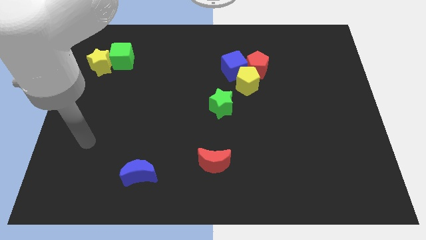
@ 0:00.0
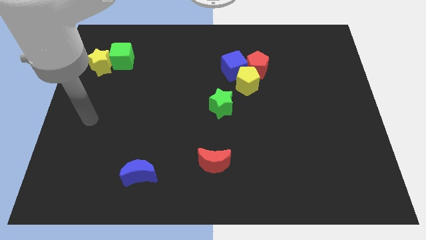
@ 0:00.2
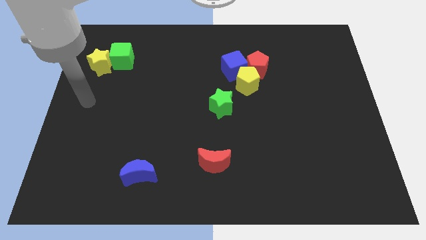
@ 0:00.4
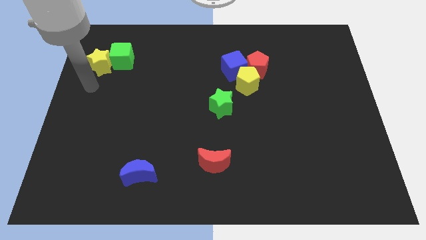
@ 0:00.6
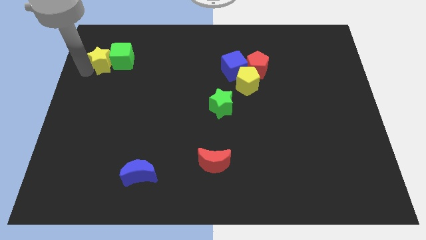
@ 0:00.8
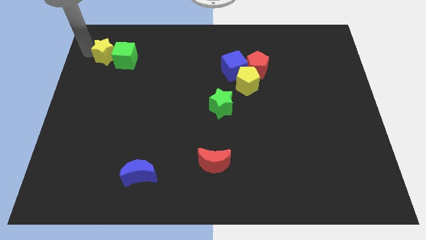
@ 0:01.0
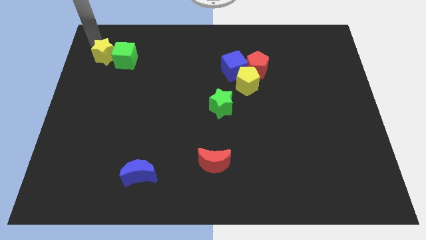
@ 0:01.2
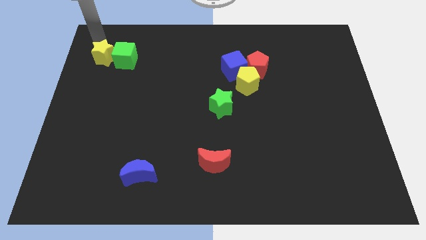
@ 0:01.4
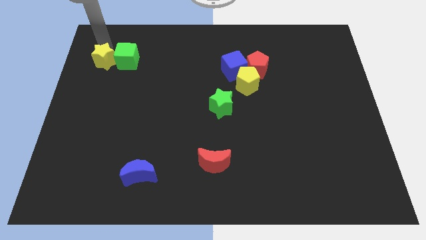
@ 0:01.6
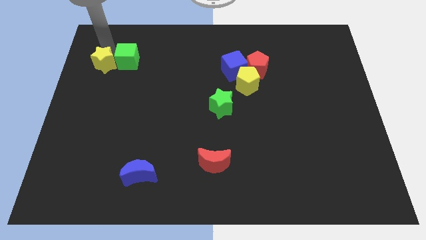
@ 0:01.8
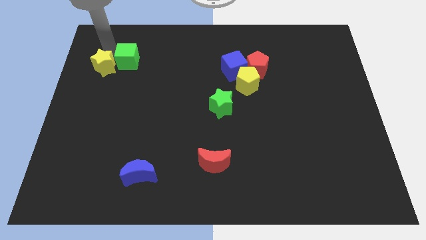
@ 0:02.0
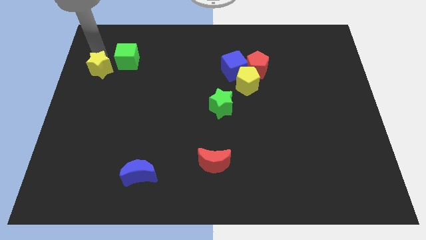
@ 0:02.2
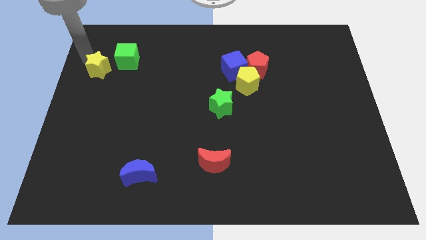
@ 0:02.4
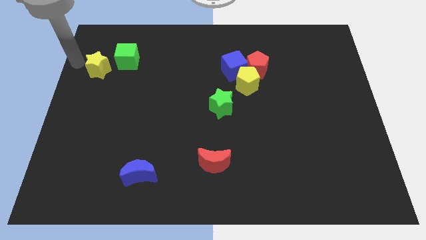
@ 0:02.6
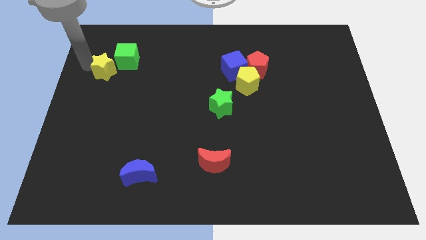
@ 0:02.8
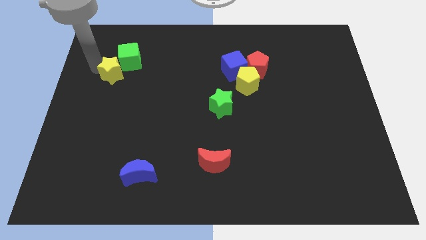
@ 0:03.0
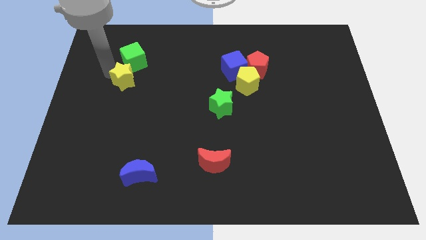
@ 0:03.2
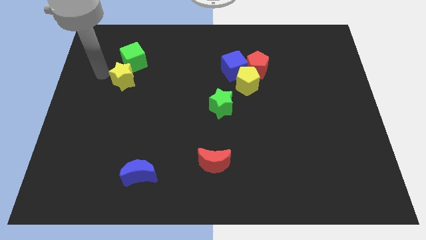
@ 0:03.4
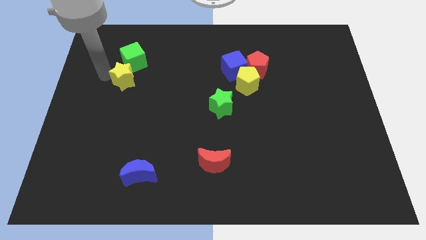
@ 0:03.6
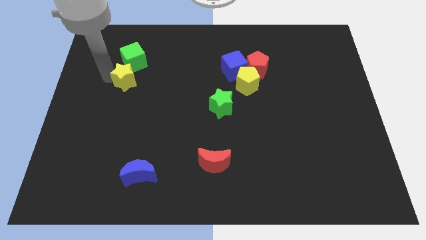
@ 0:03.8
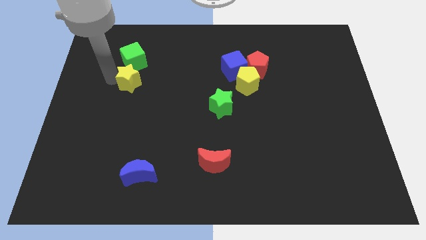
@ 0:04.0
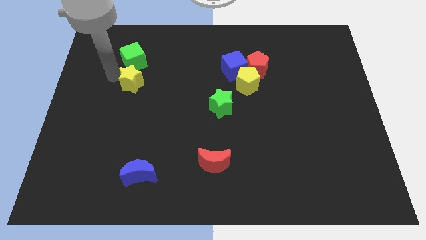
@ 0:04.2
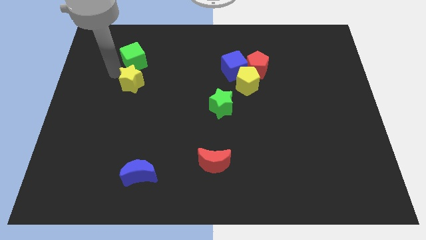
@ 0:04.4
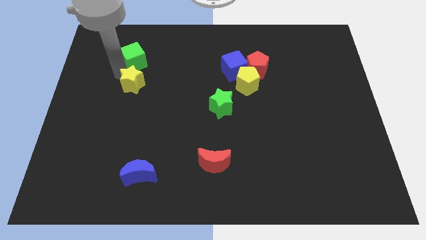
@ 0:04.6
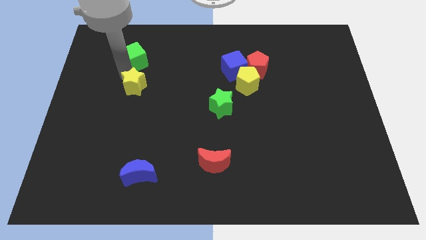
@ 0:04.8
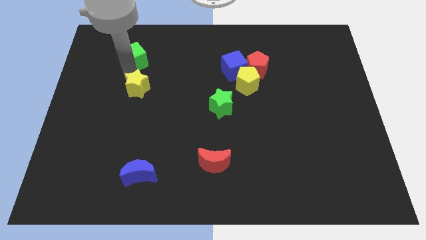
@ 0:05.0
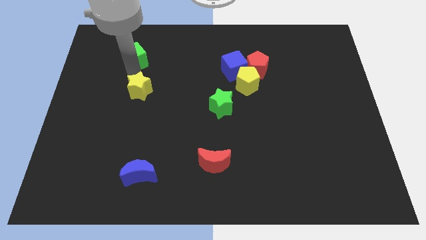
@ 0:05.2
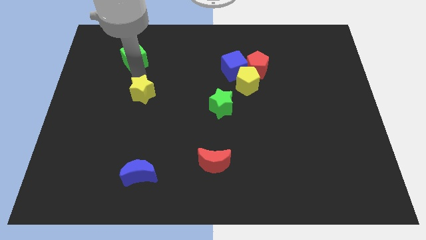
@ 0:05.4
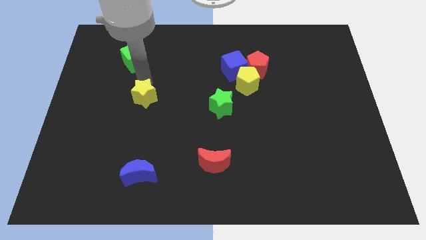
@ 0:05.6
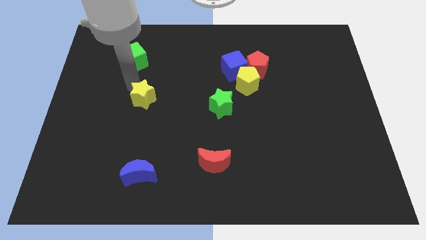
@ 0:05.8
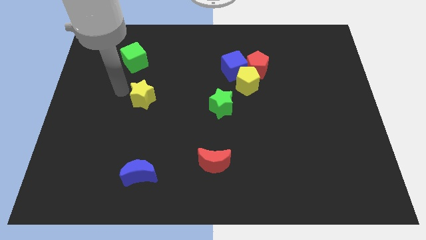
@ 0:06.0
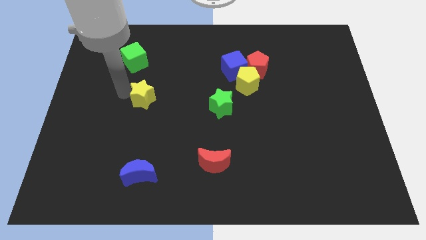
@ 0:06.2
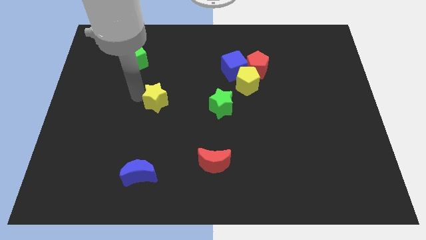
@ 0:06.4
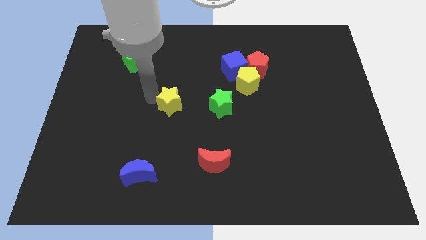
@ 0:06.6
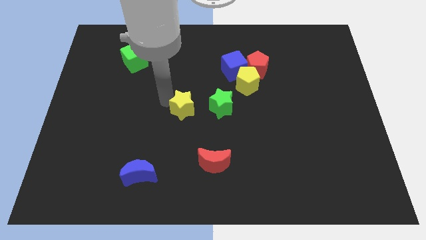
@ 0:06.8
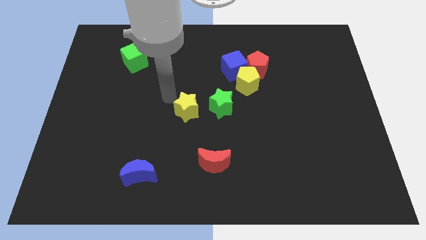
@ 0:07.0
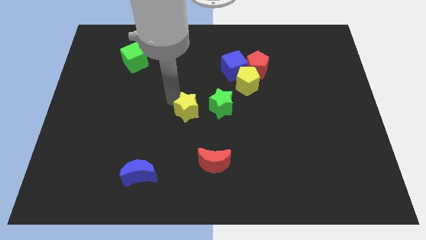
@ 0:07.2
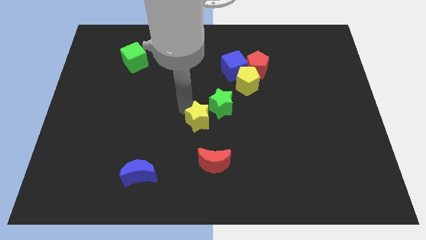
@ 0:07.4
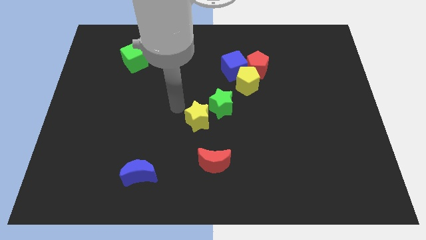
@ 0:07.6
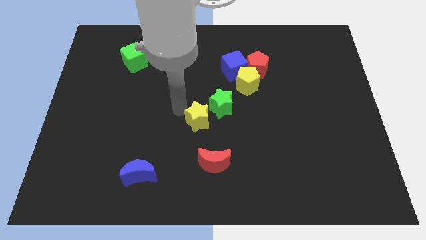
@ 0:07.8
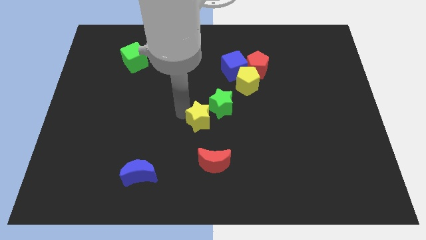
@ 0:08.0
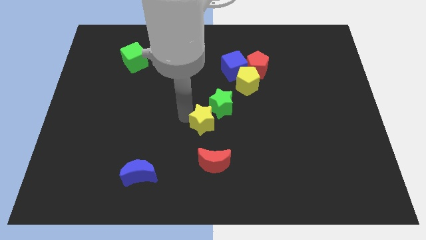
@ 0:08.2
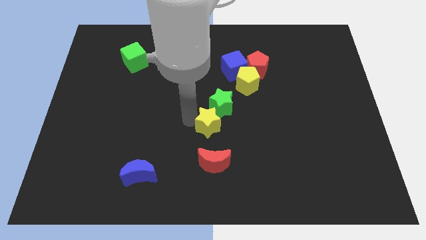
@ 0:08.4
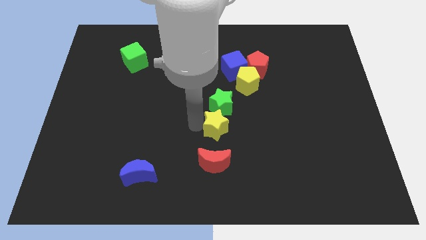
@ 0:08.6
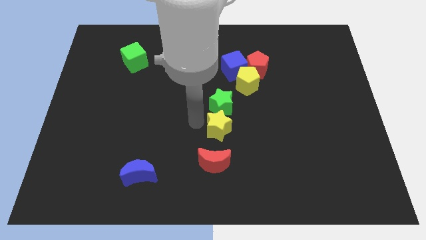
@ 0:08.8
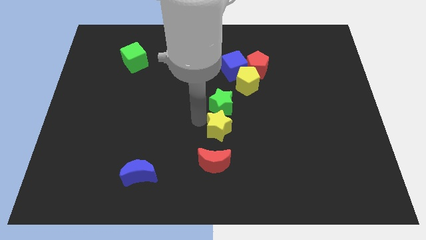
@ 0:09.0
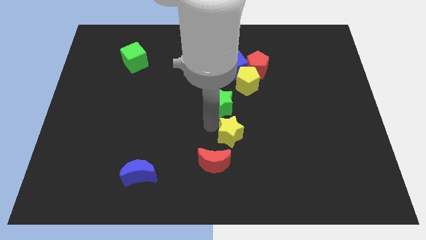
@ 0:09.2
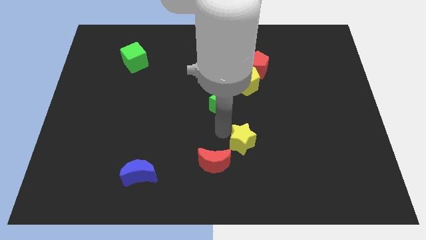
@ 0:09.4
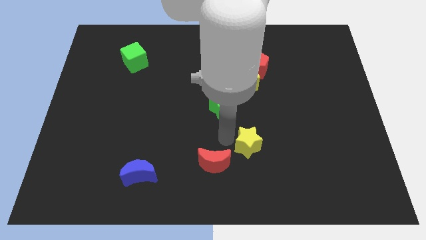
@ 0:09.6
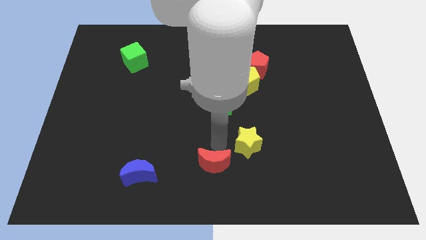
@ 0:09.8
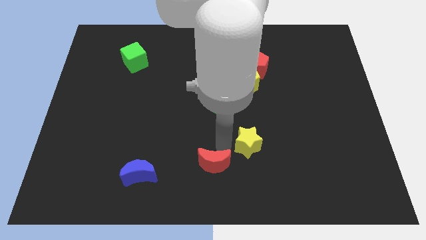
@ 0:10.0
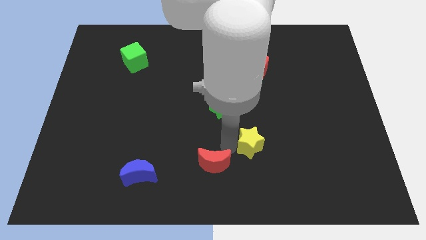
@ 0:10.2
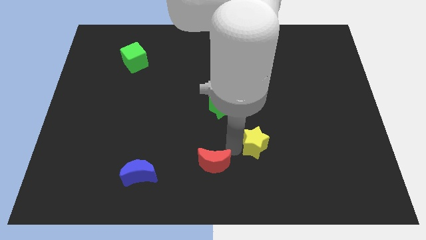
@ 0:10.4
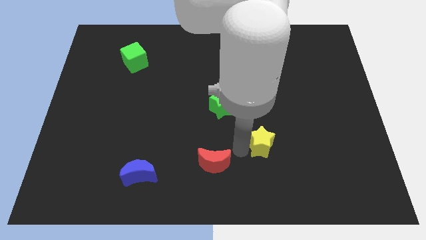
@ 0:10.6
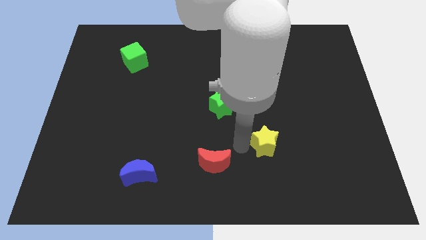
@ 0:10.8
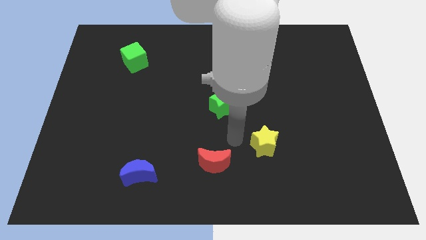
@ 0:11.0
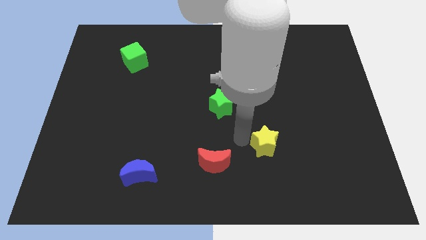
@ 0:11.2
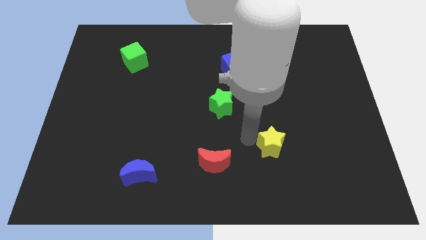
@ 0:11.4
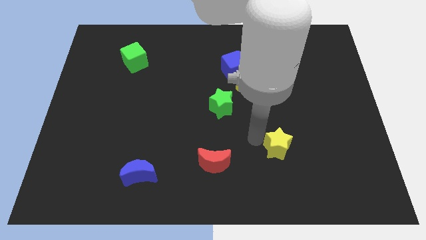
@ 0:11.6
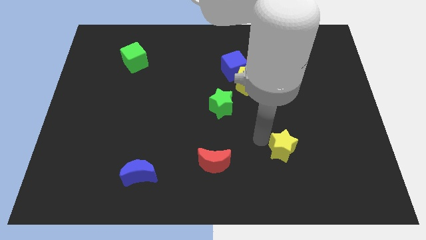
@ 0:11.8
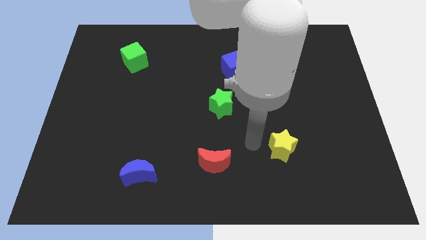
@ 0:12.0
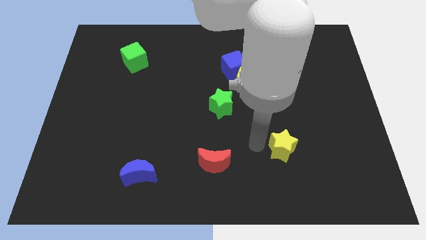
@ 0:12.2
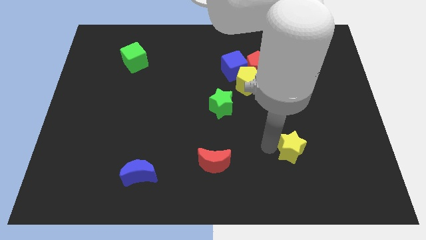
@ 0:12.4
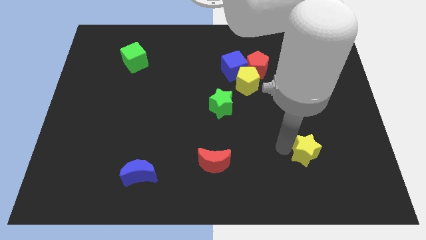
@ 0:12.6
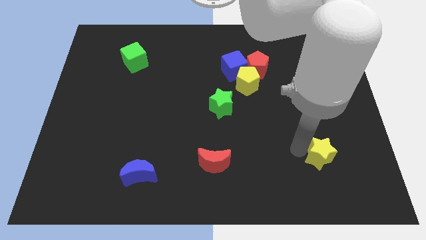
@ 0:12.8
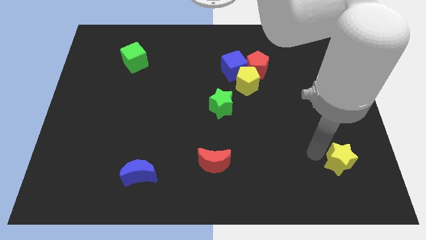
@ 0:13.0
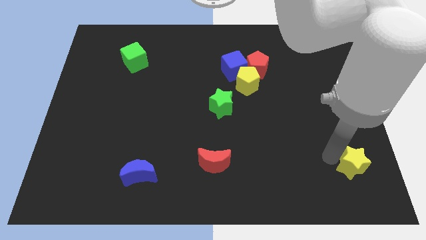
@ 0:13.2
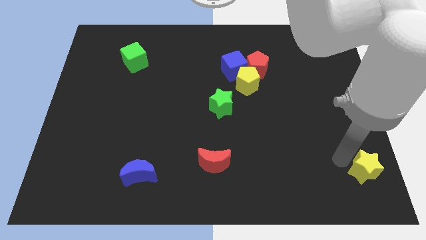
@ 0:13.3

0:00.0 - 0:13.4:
put the yellow star to the bottom right corner

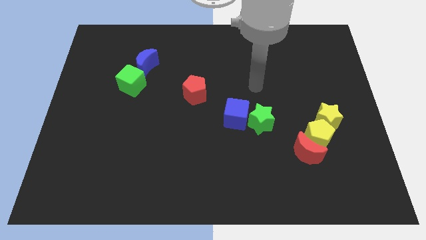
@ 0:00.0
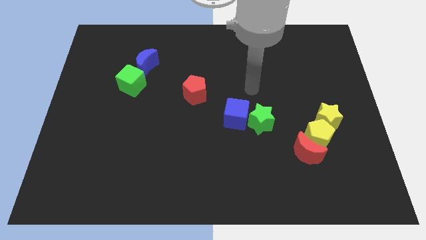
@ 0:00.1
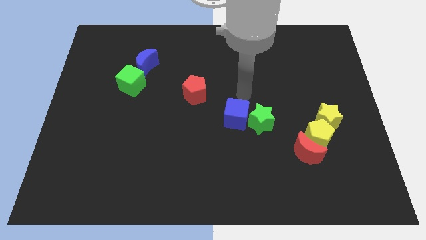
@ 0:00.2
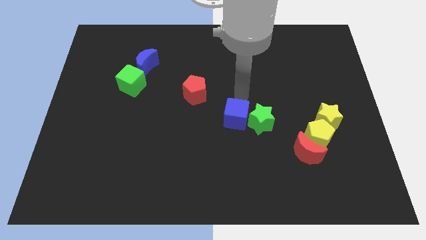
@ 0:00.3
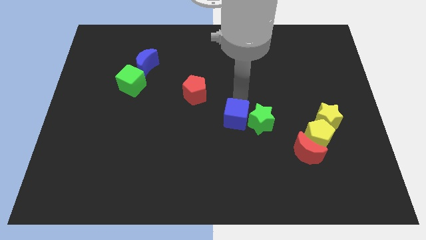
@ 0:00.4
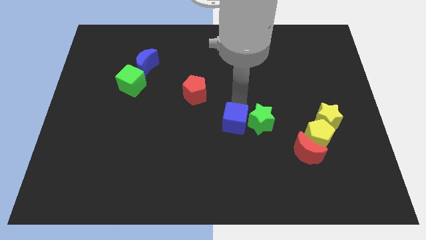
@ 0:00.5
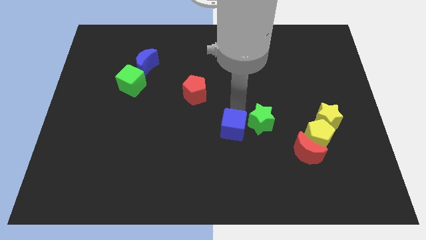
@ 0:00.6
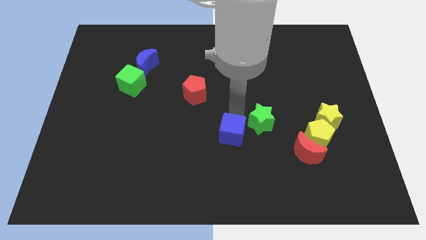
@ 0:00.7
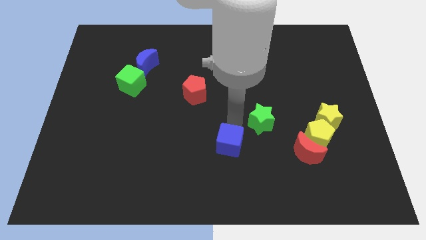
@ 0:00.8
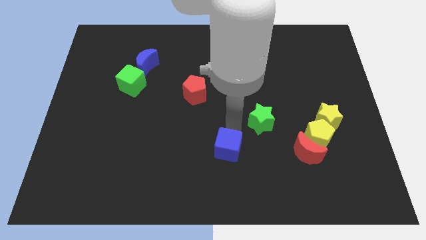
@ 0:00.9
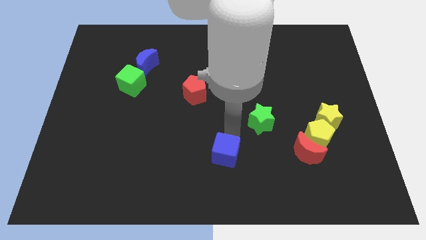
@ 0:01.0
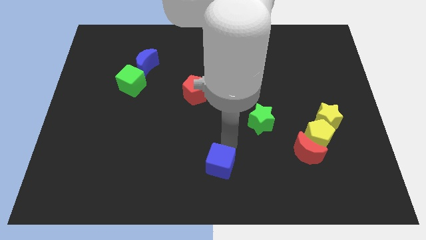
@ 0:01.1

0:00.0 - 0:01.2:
move the blue cube to the bottom
